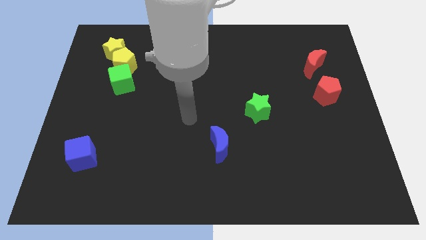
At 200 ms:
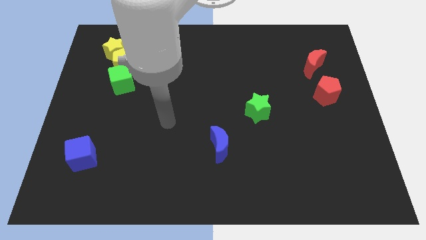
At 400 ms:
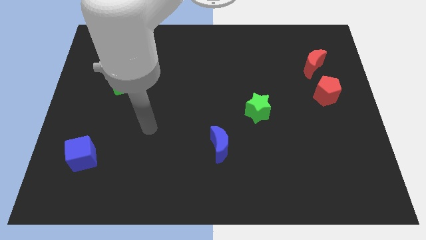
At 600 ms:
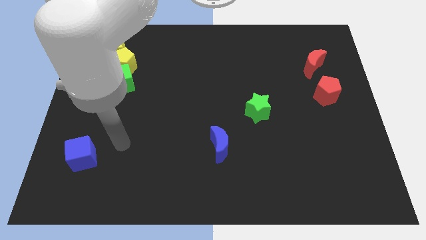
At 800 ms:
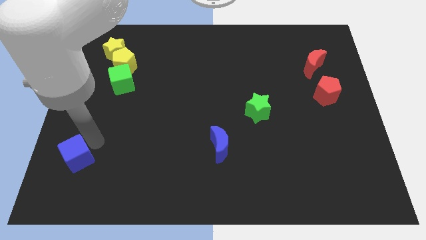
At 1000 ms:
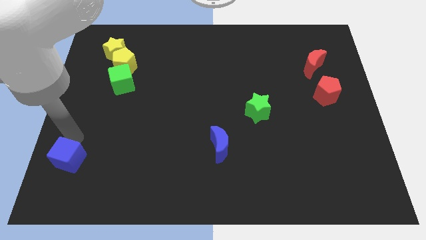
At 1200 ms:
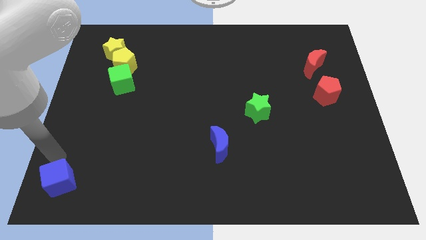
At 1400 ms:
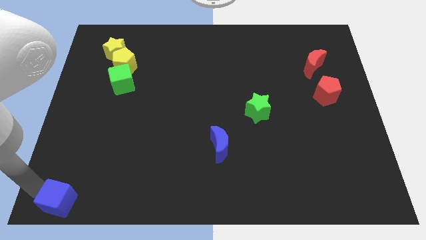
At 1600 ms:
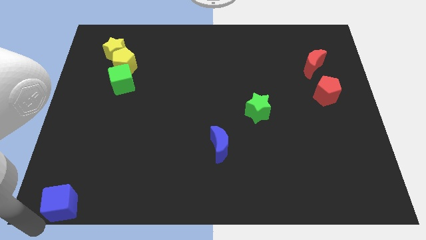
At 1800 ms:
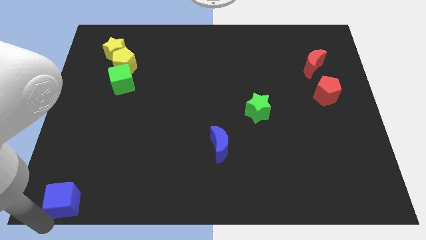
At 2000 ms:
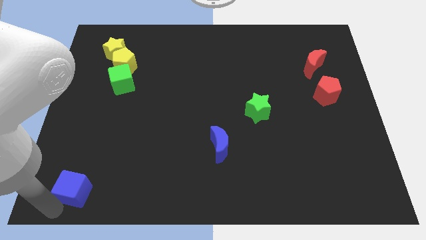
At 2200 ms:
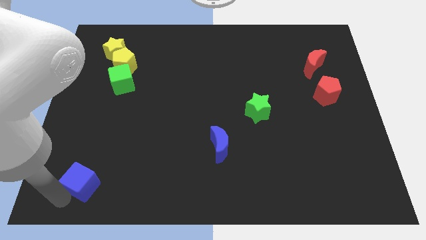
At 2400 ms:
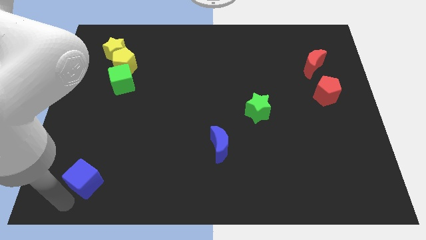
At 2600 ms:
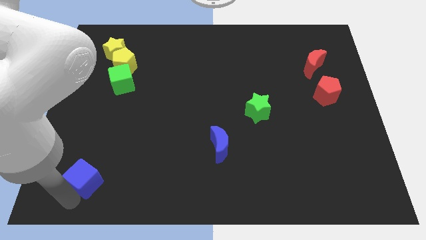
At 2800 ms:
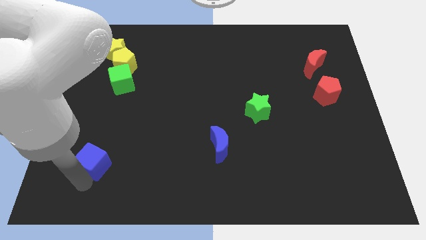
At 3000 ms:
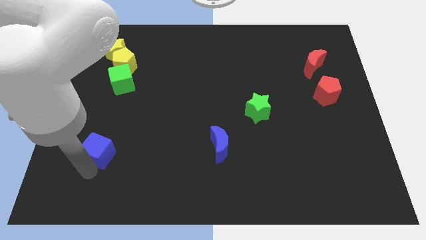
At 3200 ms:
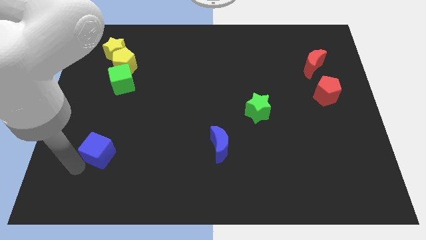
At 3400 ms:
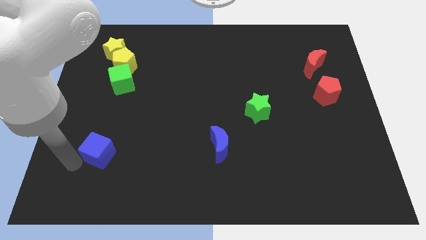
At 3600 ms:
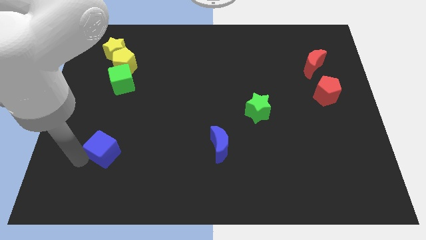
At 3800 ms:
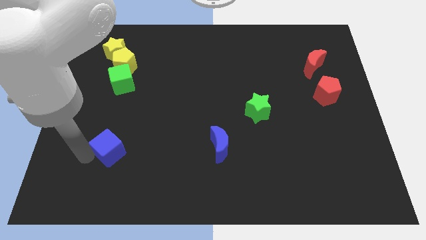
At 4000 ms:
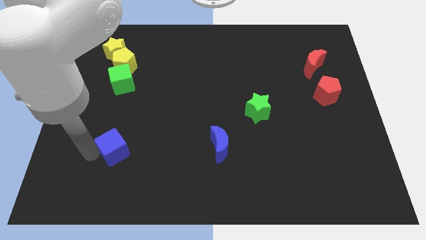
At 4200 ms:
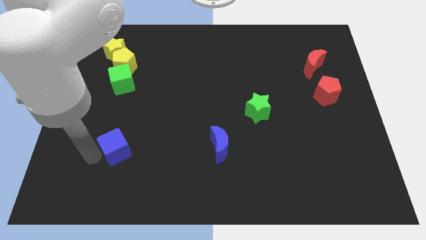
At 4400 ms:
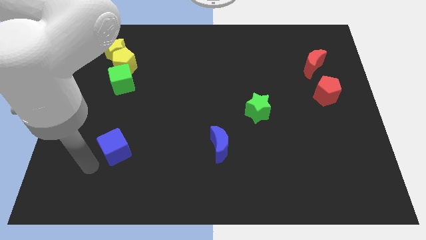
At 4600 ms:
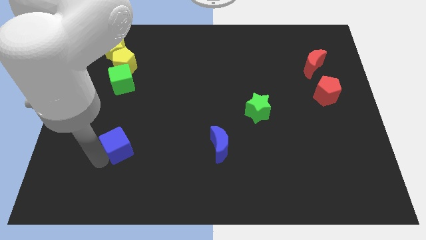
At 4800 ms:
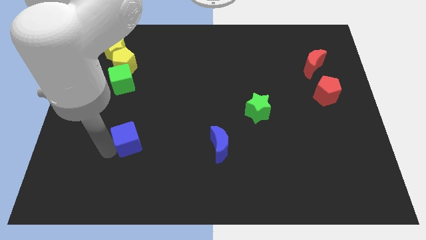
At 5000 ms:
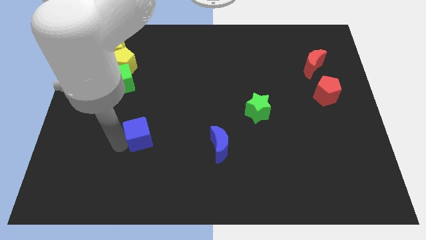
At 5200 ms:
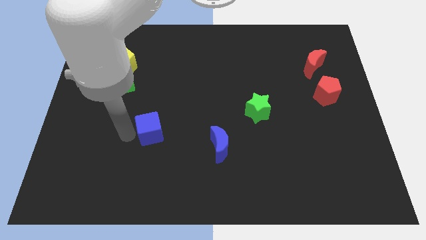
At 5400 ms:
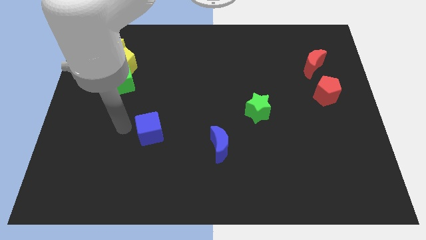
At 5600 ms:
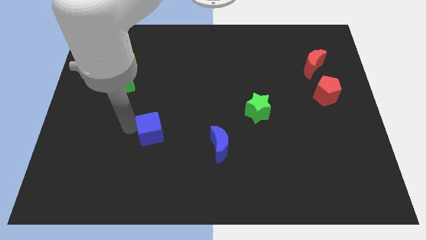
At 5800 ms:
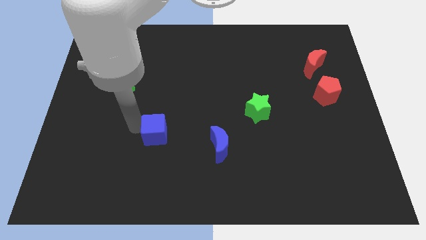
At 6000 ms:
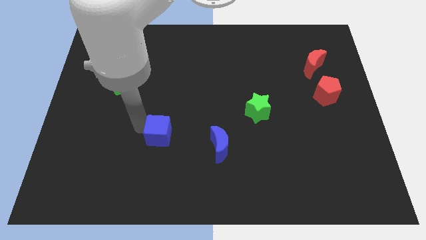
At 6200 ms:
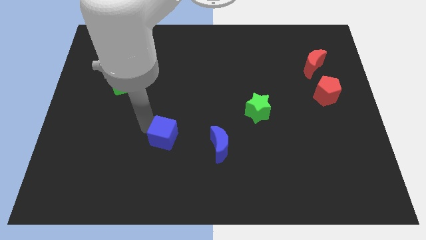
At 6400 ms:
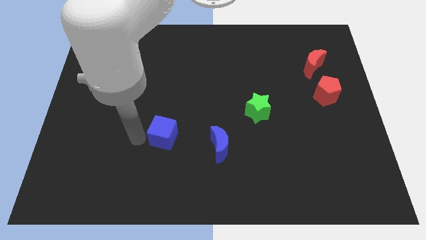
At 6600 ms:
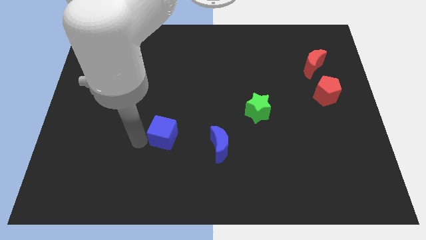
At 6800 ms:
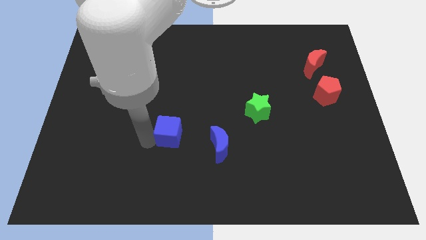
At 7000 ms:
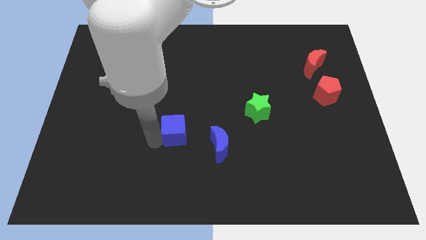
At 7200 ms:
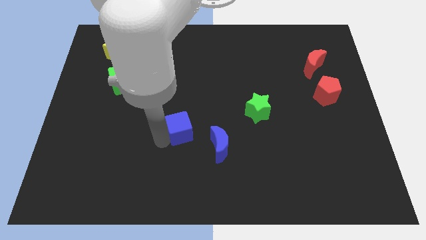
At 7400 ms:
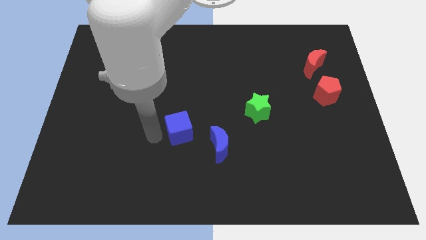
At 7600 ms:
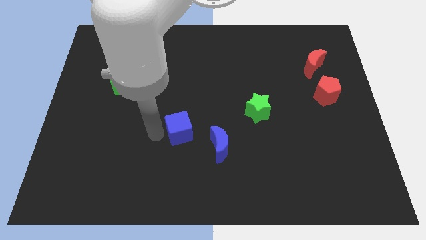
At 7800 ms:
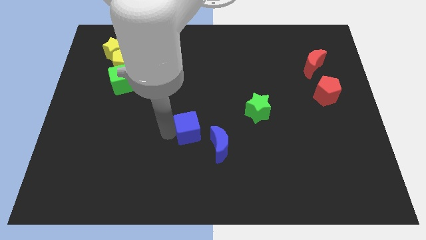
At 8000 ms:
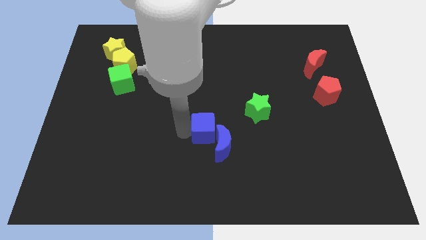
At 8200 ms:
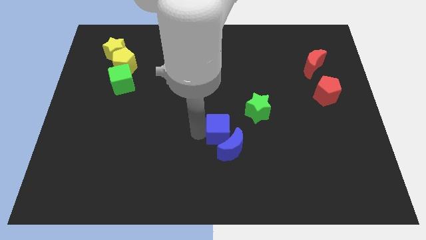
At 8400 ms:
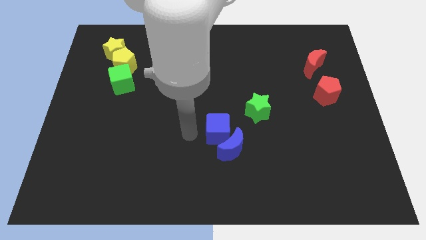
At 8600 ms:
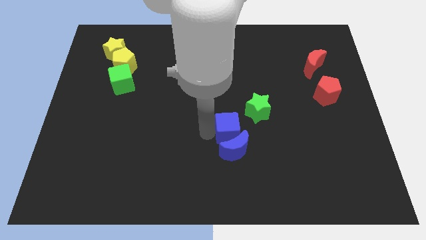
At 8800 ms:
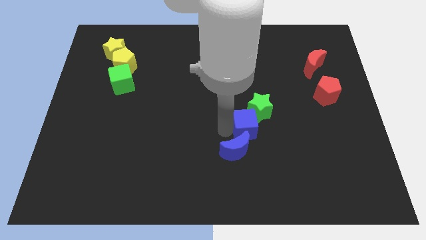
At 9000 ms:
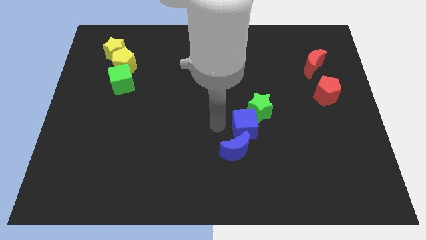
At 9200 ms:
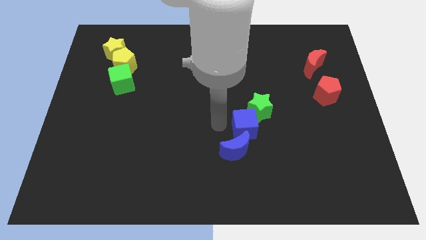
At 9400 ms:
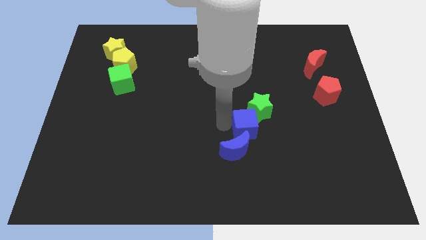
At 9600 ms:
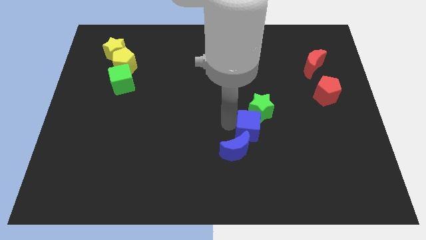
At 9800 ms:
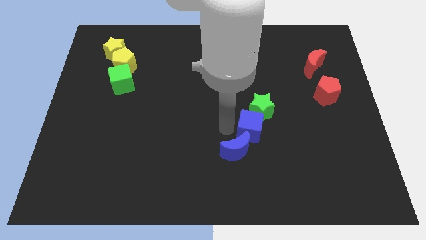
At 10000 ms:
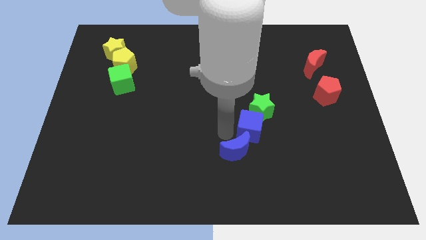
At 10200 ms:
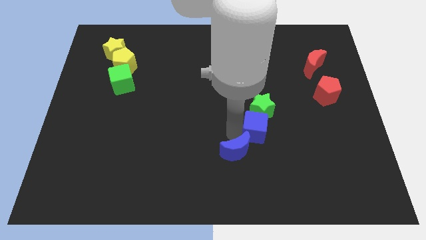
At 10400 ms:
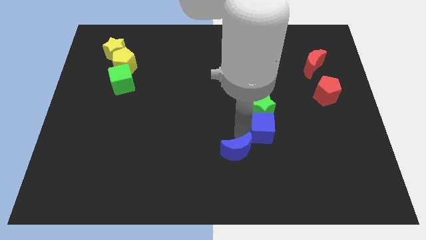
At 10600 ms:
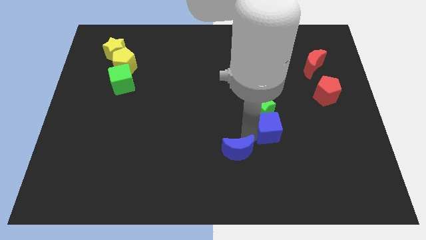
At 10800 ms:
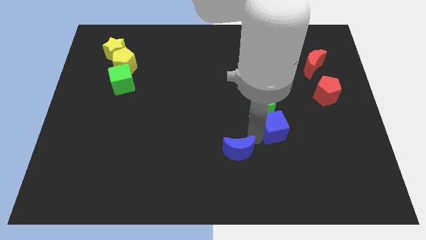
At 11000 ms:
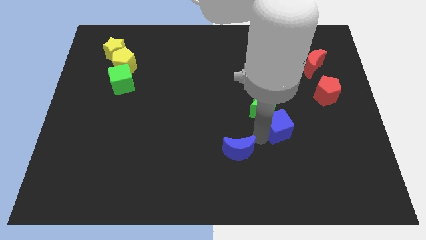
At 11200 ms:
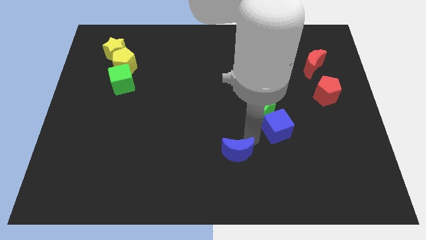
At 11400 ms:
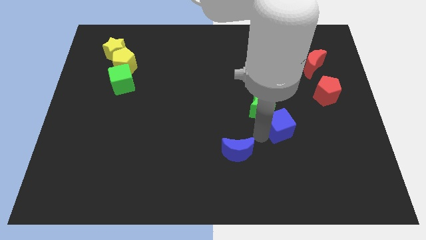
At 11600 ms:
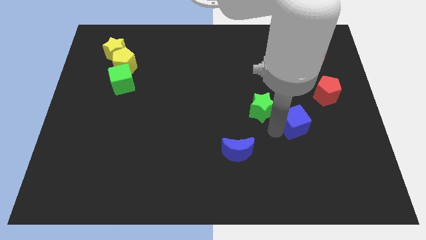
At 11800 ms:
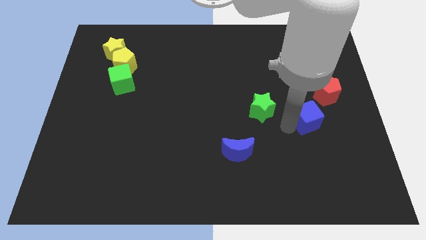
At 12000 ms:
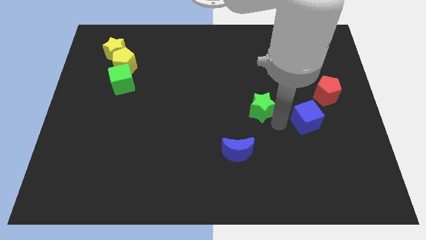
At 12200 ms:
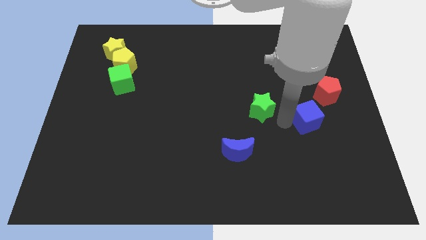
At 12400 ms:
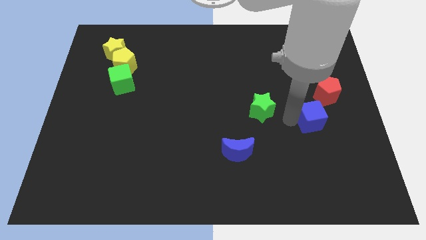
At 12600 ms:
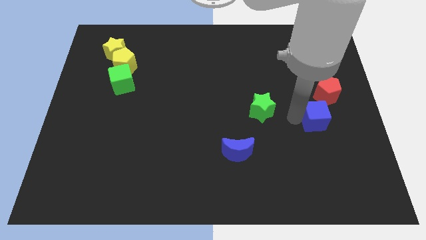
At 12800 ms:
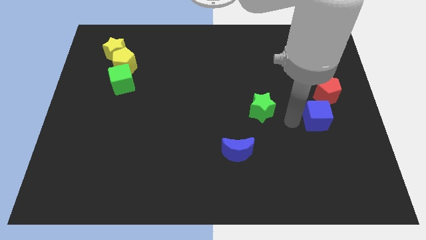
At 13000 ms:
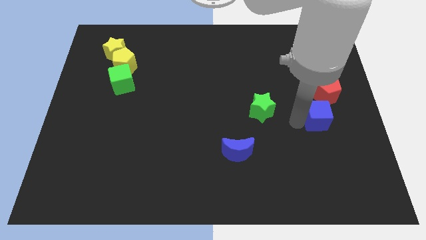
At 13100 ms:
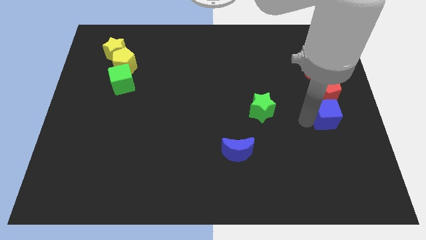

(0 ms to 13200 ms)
put the blue cube to the center right
